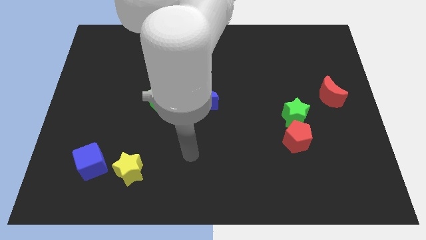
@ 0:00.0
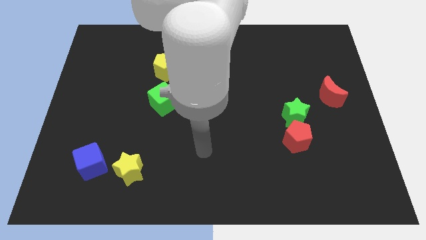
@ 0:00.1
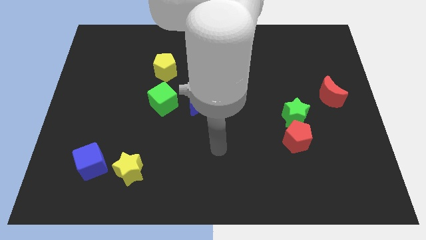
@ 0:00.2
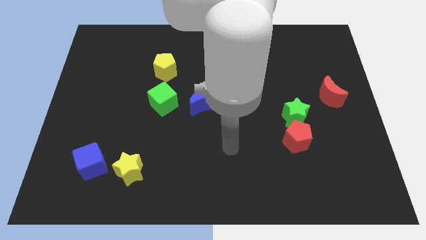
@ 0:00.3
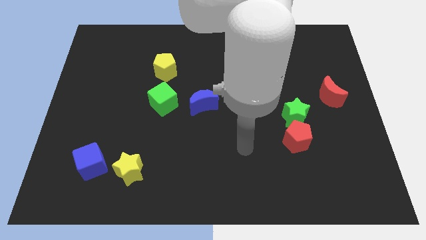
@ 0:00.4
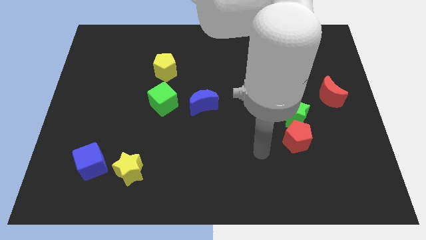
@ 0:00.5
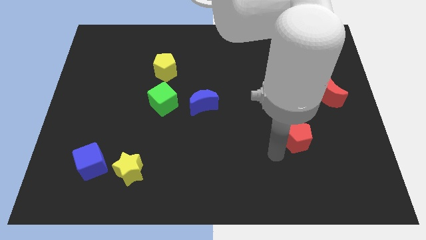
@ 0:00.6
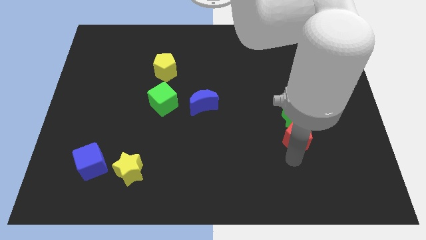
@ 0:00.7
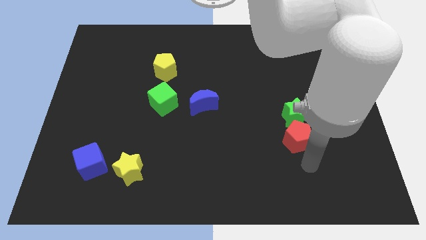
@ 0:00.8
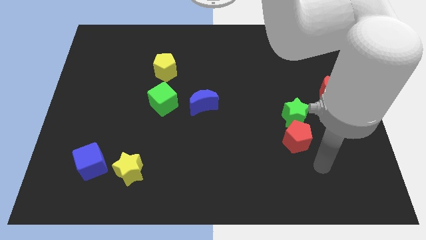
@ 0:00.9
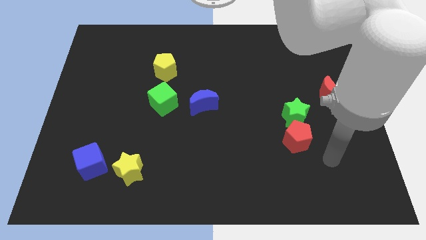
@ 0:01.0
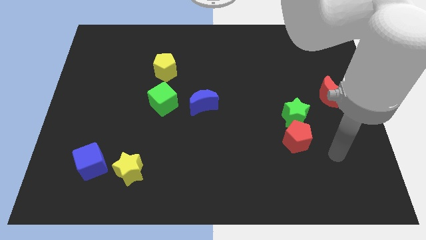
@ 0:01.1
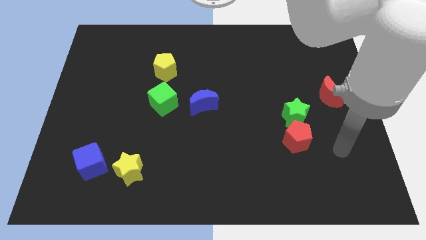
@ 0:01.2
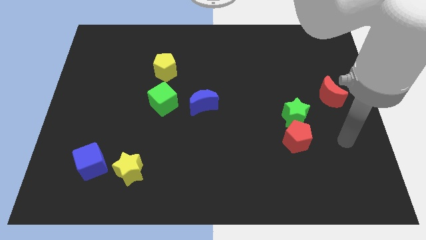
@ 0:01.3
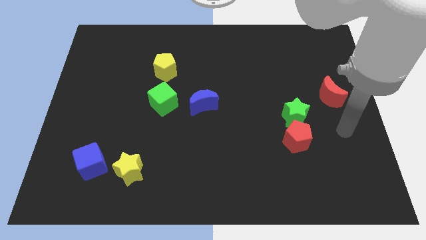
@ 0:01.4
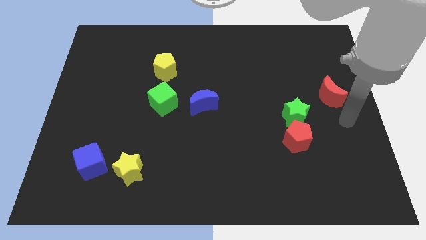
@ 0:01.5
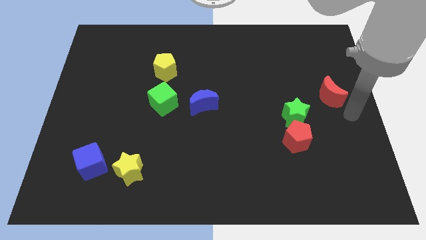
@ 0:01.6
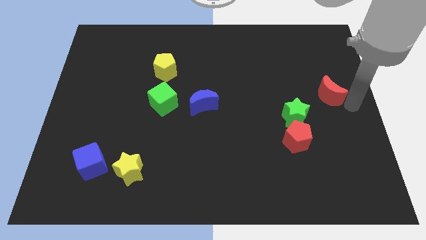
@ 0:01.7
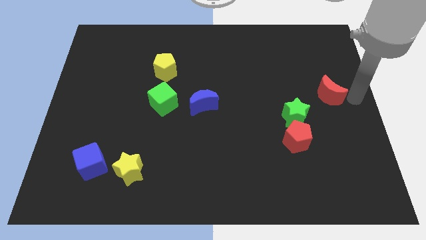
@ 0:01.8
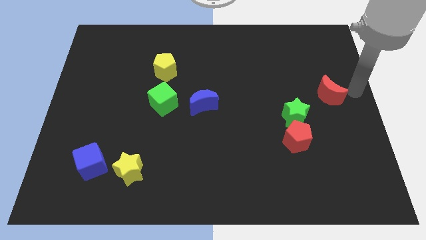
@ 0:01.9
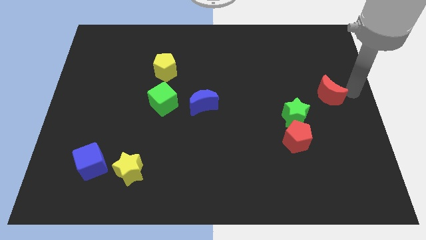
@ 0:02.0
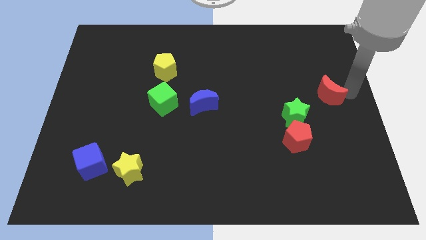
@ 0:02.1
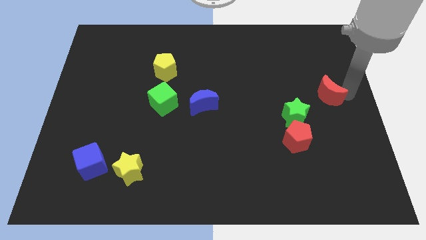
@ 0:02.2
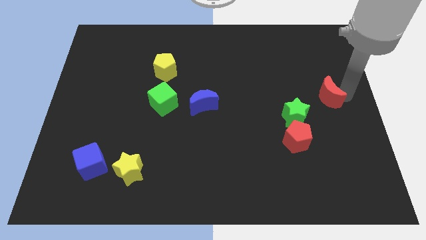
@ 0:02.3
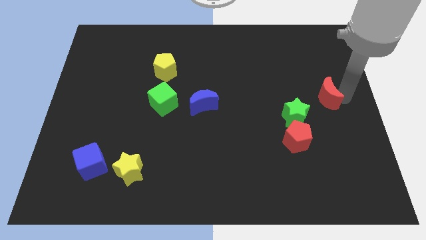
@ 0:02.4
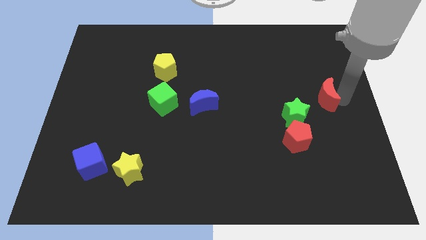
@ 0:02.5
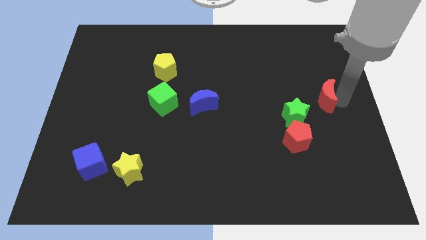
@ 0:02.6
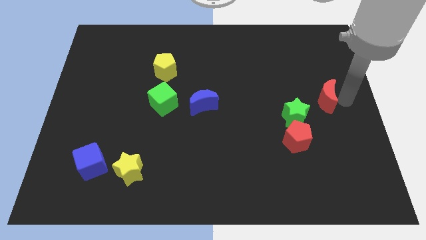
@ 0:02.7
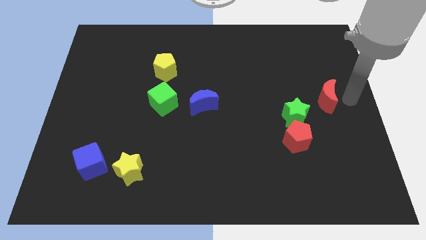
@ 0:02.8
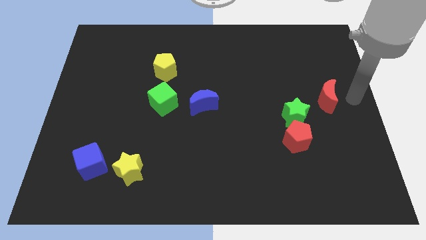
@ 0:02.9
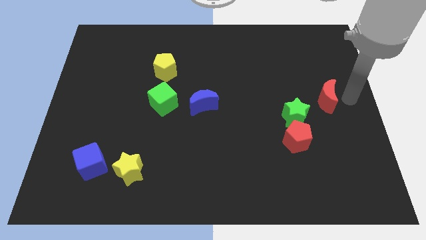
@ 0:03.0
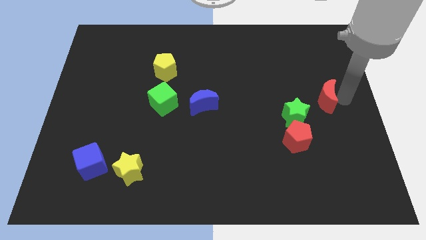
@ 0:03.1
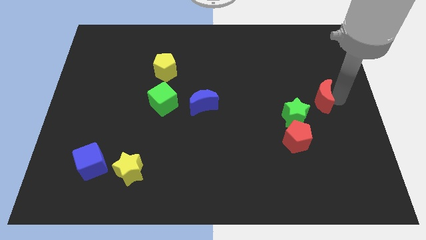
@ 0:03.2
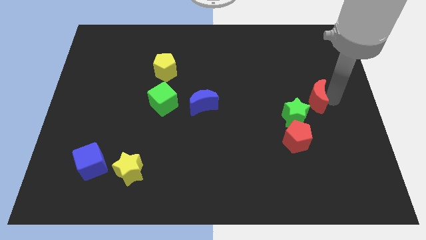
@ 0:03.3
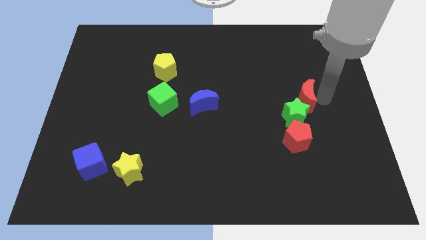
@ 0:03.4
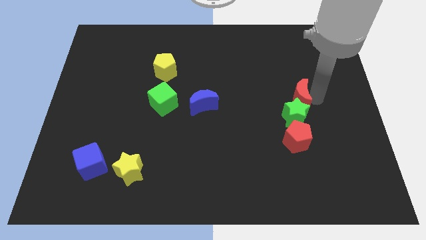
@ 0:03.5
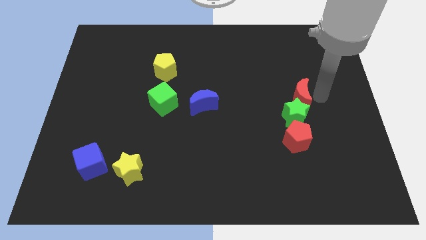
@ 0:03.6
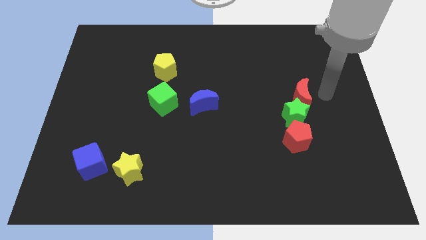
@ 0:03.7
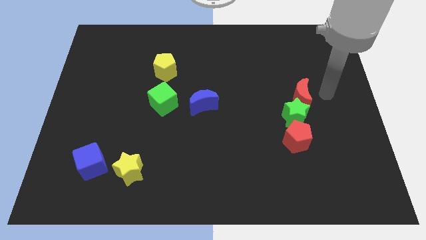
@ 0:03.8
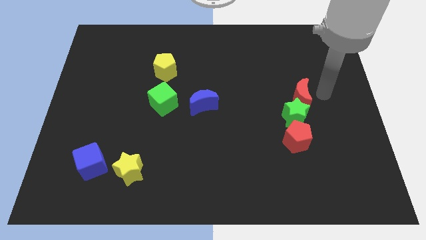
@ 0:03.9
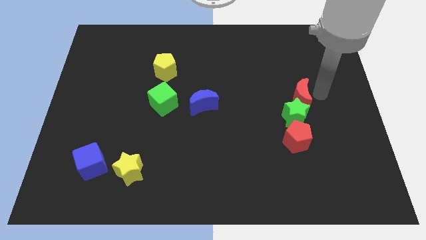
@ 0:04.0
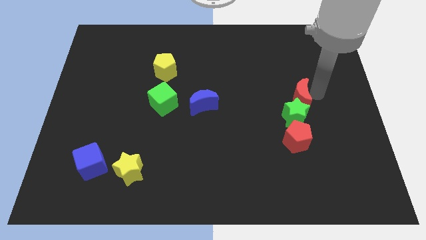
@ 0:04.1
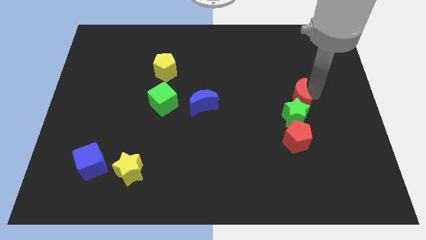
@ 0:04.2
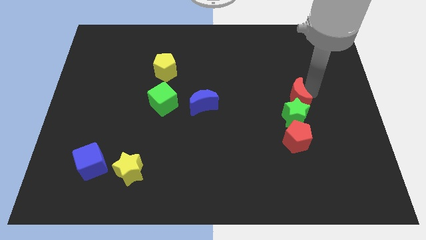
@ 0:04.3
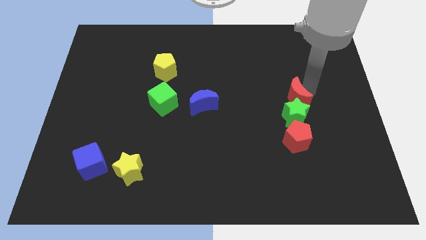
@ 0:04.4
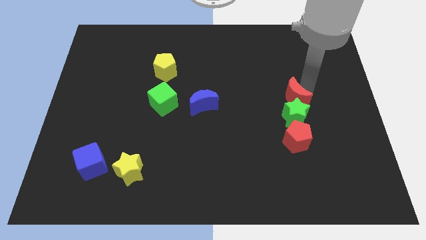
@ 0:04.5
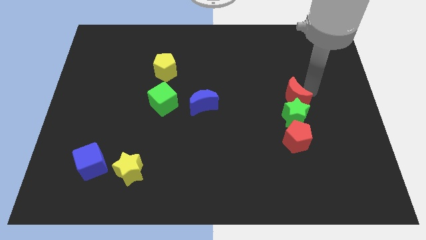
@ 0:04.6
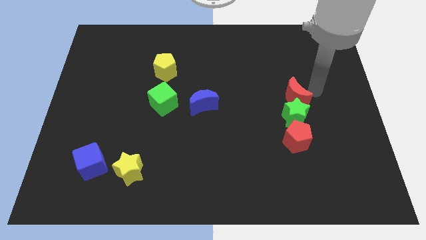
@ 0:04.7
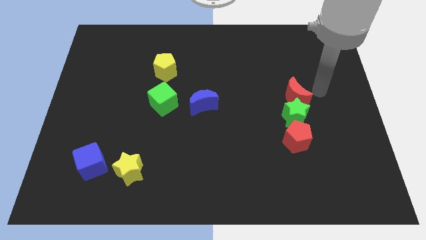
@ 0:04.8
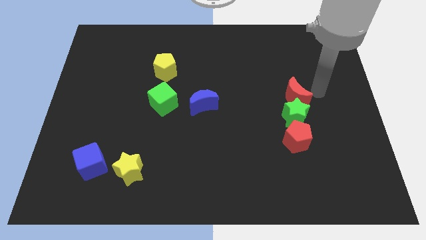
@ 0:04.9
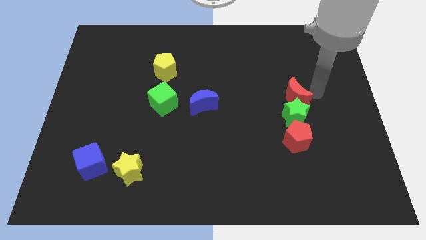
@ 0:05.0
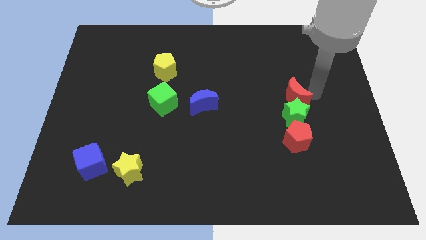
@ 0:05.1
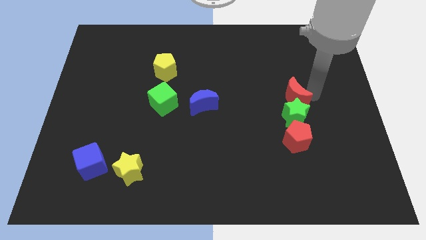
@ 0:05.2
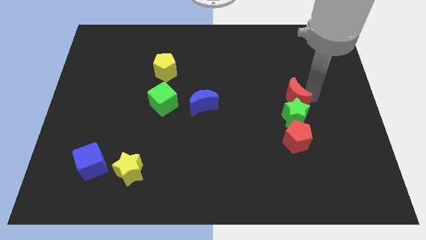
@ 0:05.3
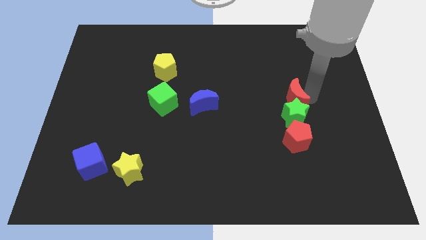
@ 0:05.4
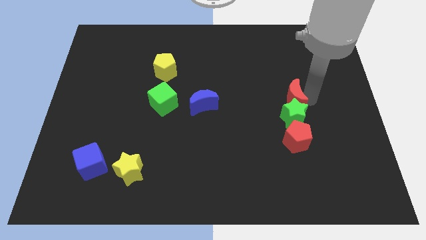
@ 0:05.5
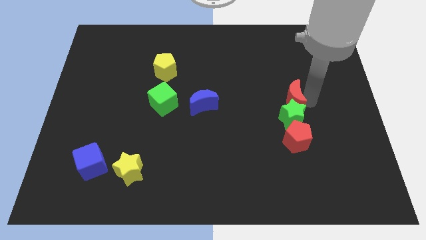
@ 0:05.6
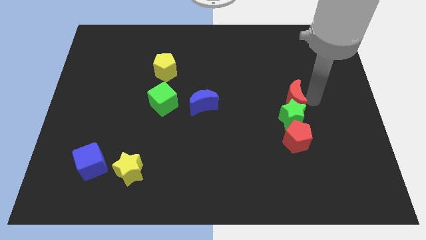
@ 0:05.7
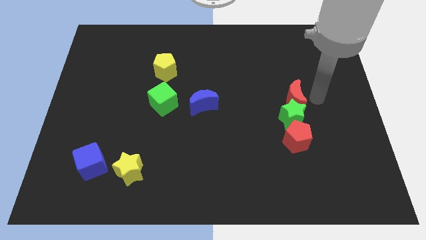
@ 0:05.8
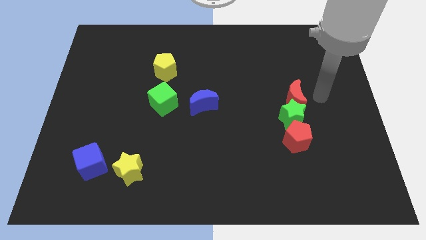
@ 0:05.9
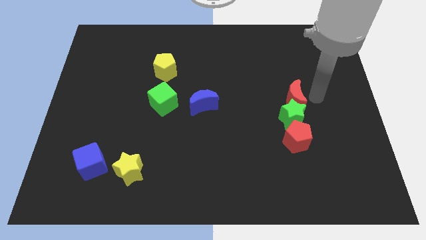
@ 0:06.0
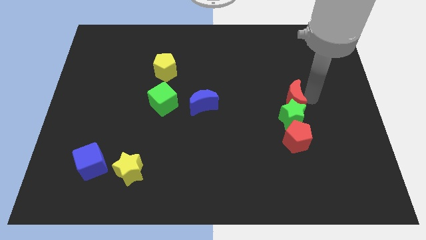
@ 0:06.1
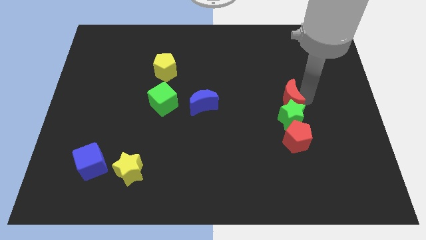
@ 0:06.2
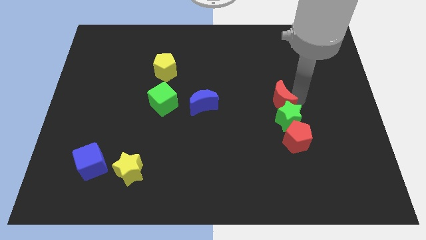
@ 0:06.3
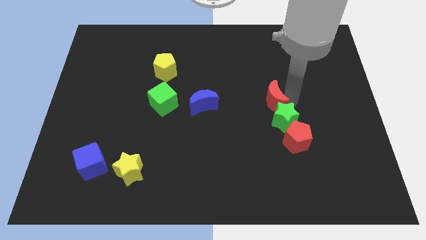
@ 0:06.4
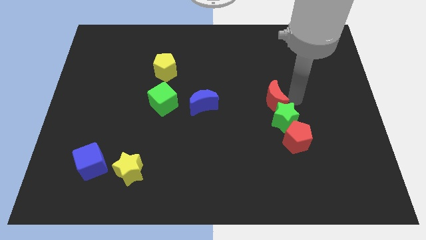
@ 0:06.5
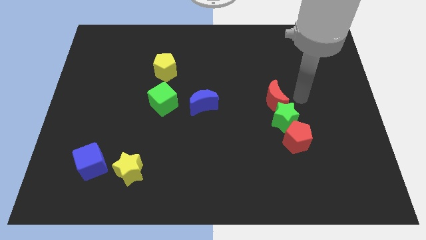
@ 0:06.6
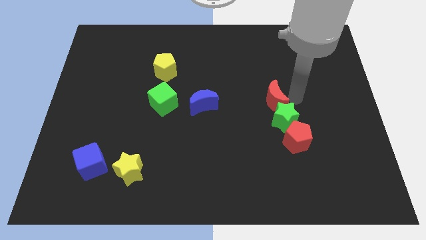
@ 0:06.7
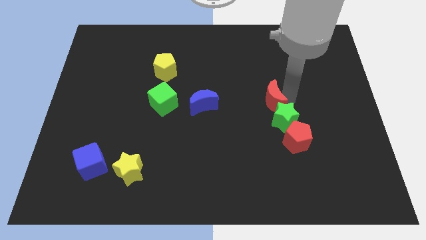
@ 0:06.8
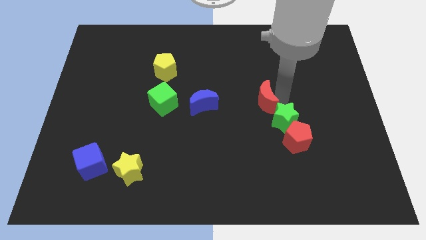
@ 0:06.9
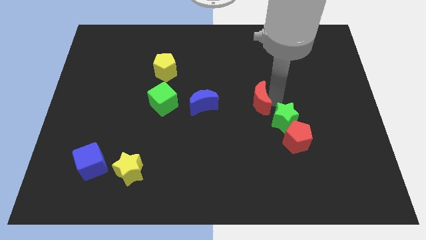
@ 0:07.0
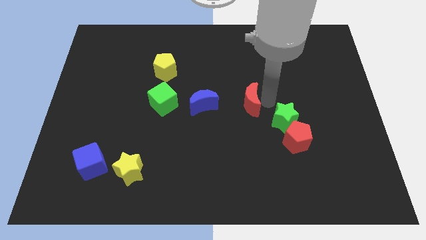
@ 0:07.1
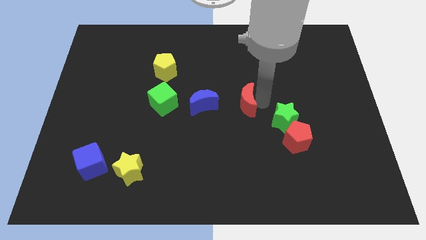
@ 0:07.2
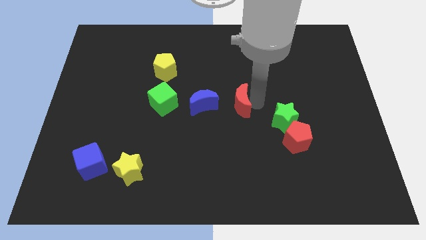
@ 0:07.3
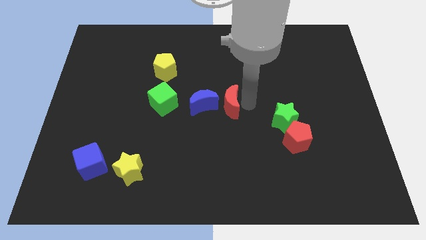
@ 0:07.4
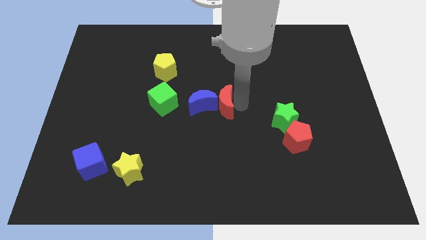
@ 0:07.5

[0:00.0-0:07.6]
move the red moon close to the blue moon
